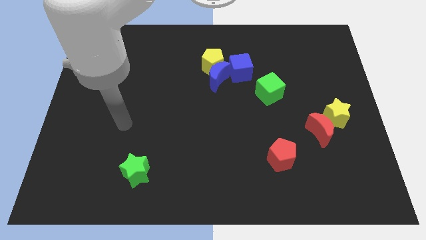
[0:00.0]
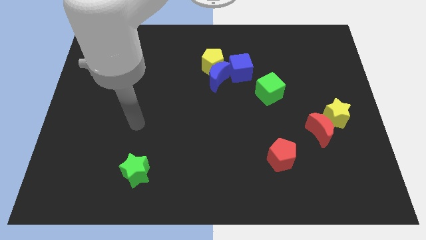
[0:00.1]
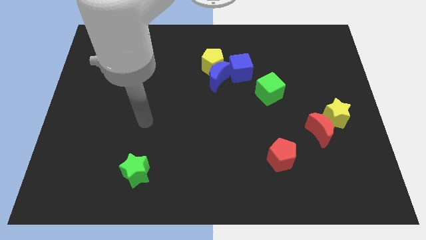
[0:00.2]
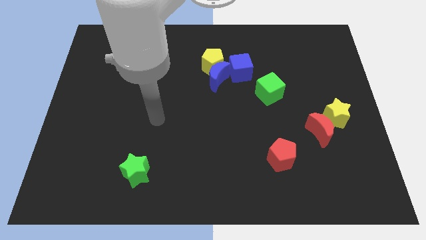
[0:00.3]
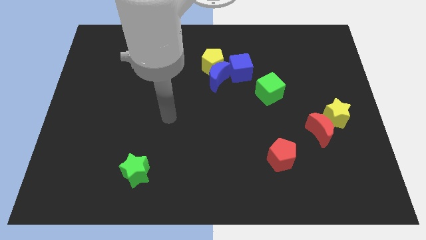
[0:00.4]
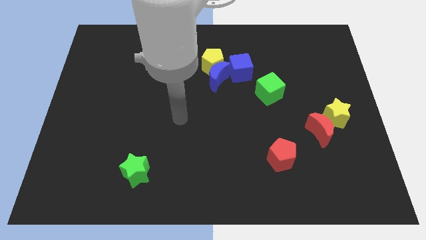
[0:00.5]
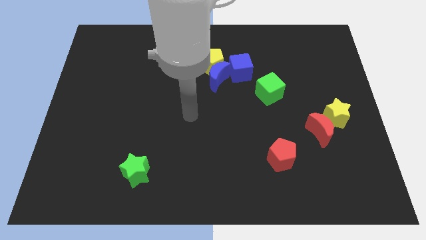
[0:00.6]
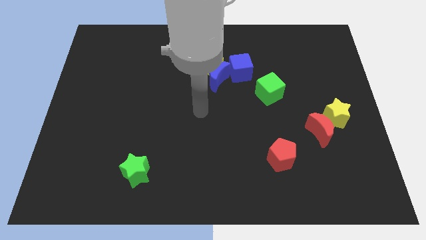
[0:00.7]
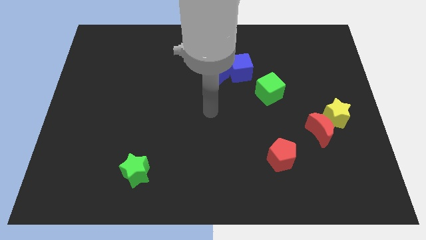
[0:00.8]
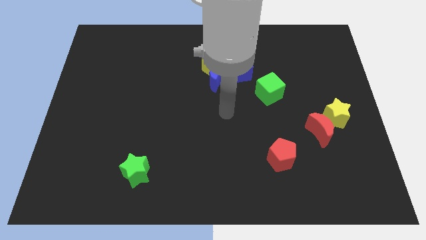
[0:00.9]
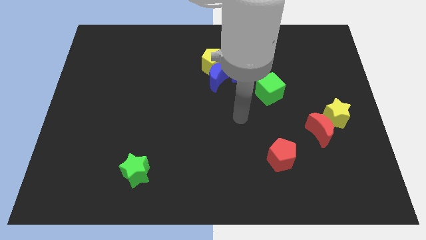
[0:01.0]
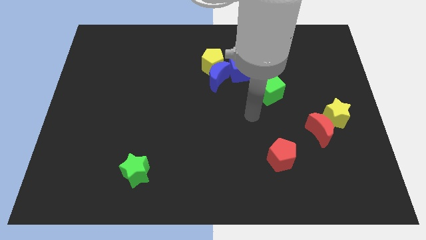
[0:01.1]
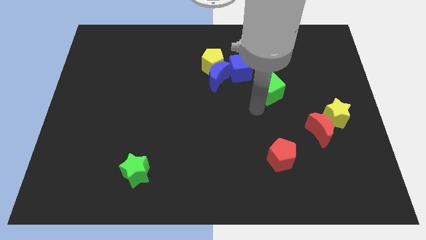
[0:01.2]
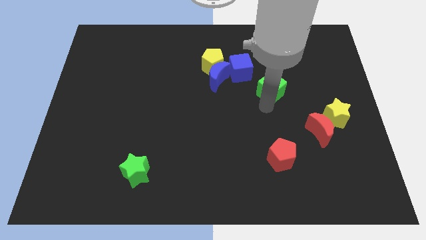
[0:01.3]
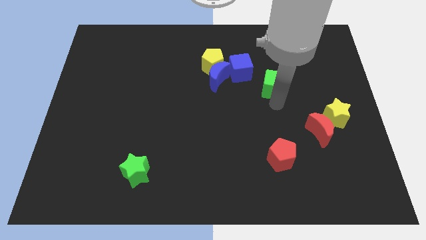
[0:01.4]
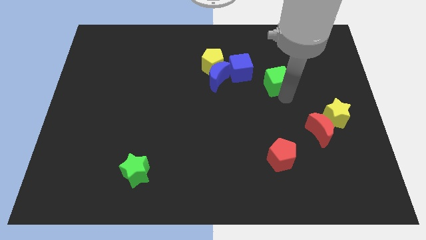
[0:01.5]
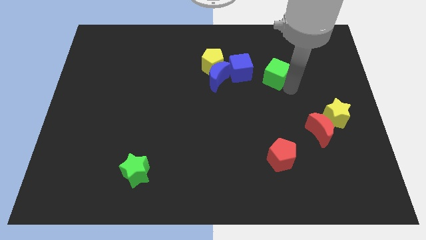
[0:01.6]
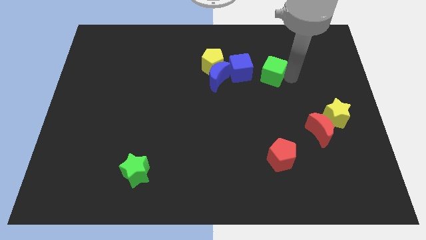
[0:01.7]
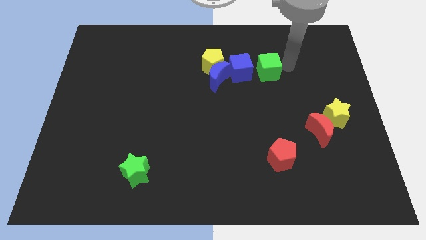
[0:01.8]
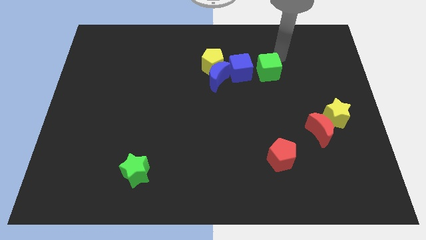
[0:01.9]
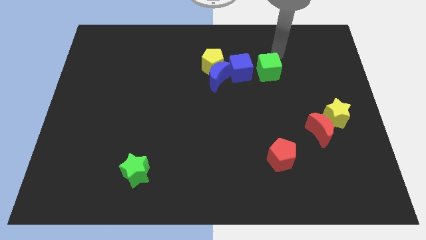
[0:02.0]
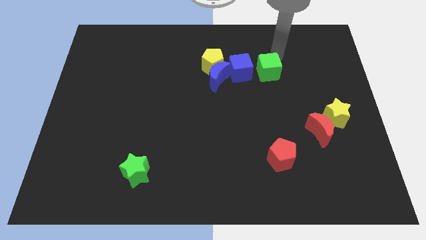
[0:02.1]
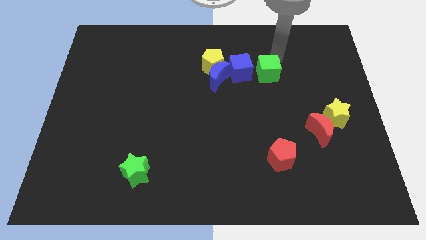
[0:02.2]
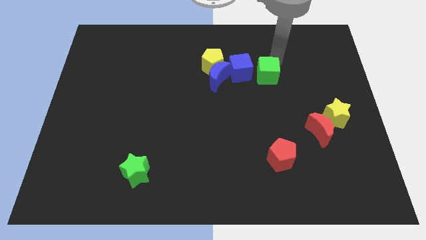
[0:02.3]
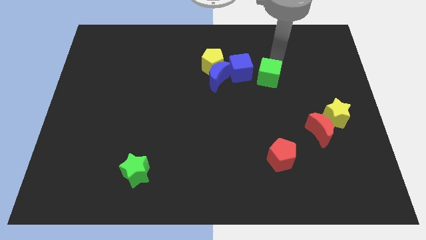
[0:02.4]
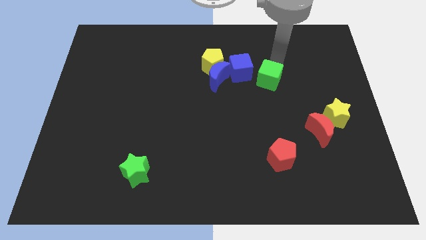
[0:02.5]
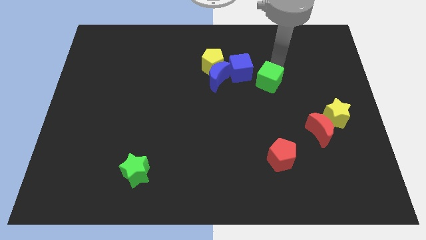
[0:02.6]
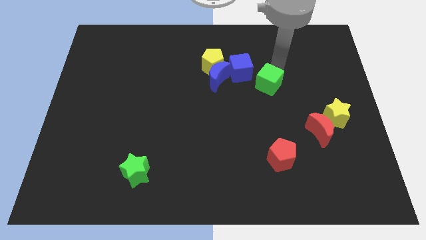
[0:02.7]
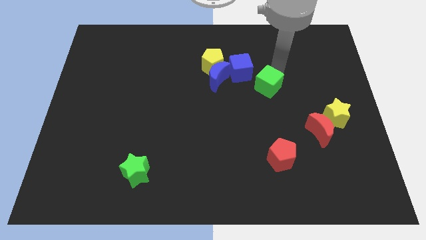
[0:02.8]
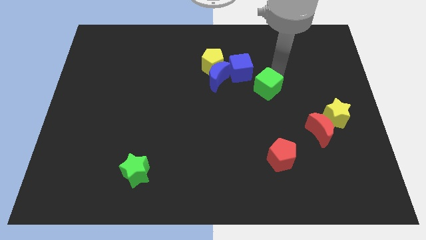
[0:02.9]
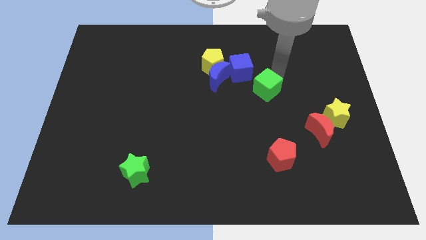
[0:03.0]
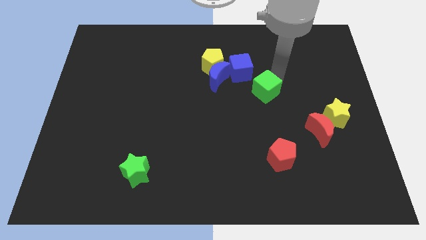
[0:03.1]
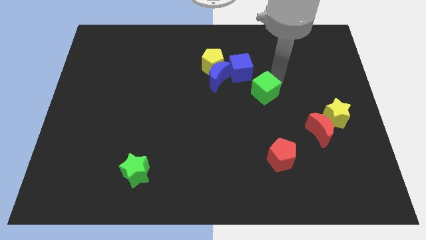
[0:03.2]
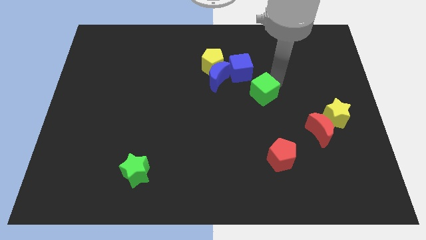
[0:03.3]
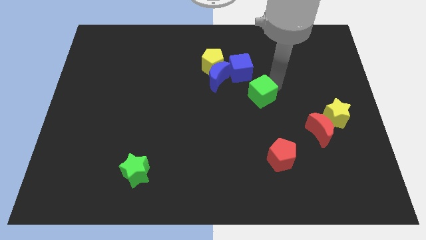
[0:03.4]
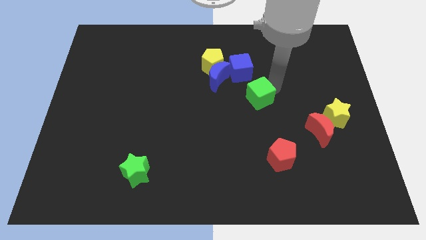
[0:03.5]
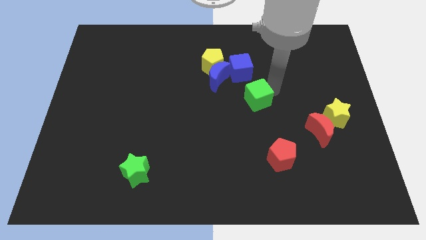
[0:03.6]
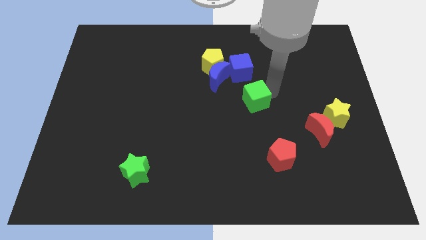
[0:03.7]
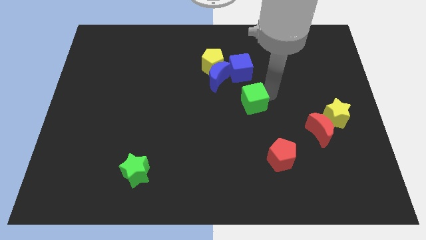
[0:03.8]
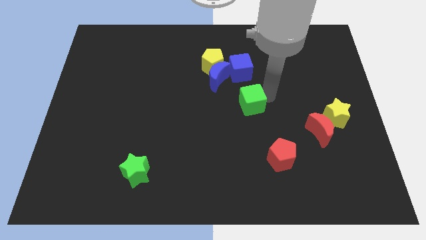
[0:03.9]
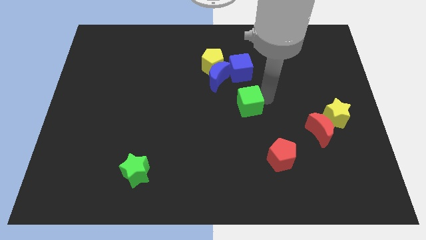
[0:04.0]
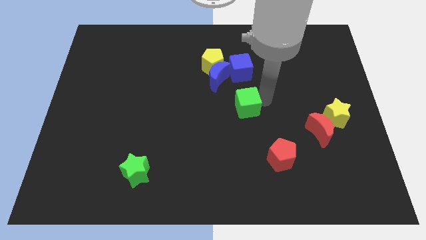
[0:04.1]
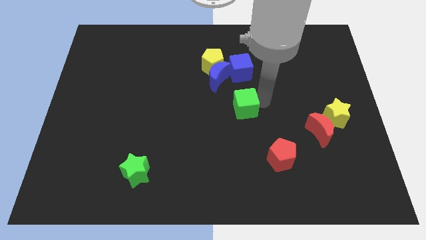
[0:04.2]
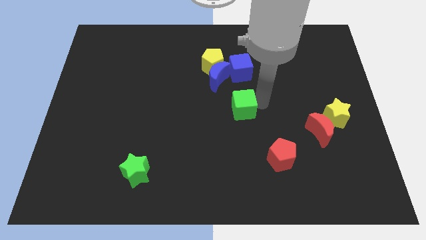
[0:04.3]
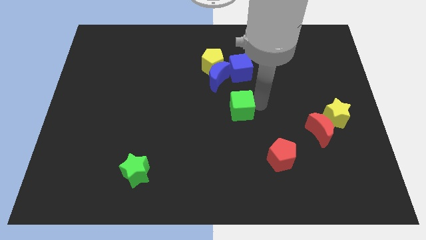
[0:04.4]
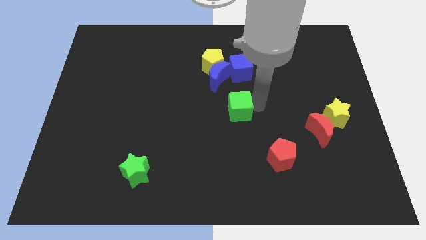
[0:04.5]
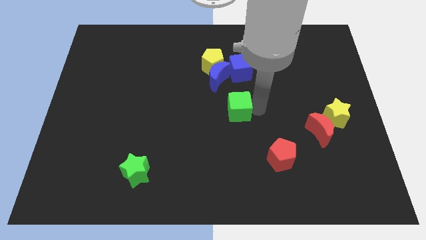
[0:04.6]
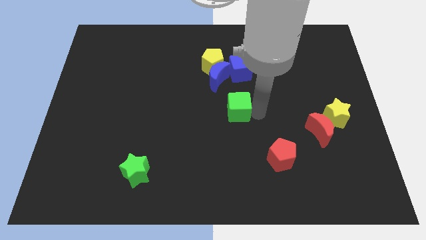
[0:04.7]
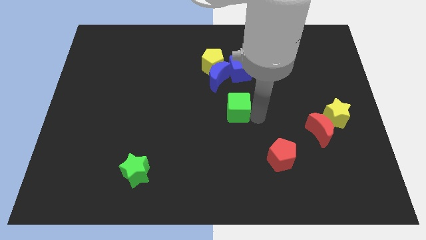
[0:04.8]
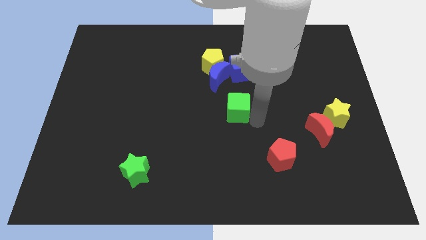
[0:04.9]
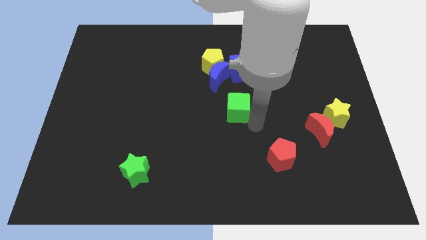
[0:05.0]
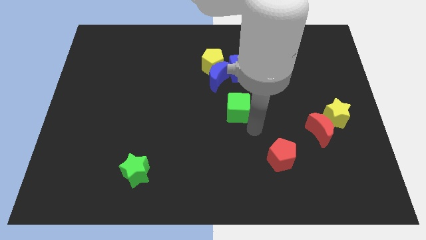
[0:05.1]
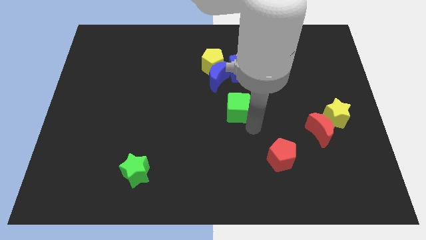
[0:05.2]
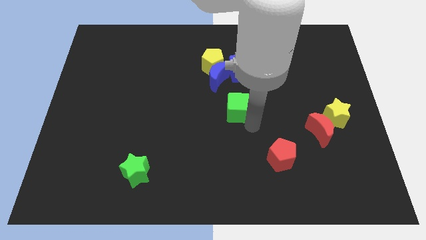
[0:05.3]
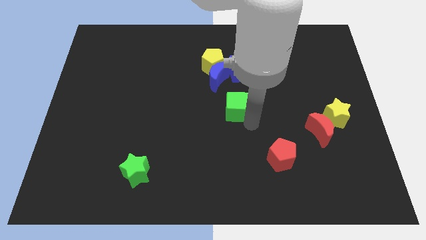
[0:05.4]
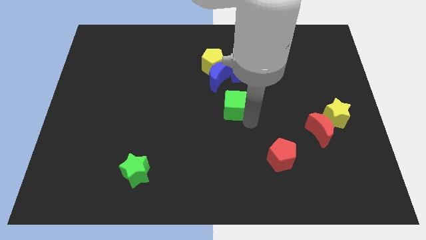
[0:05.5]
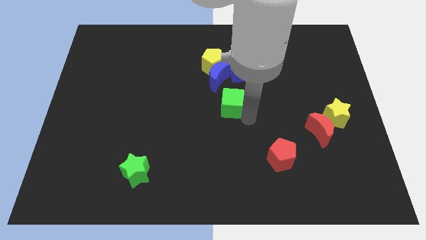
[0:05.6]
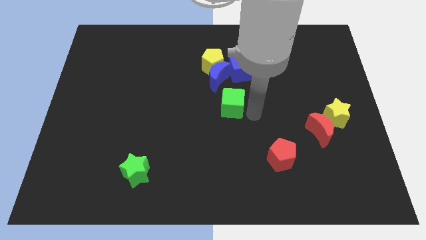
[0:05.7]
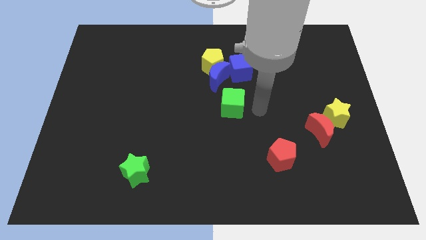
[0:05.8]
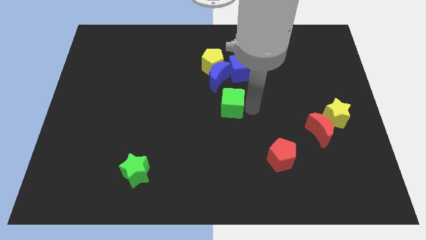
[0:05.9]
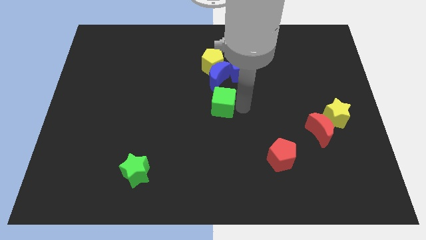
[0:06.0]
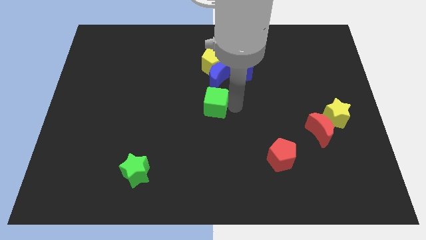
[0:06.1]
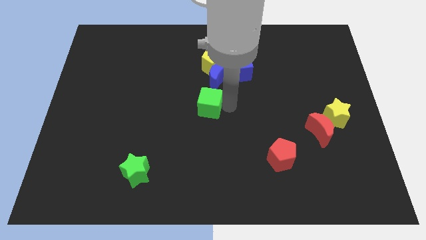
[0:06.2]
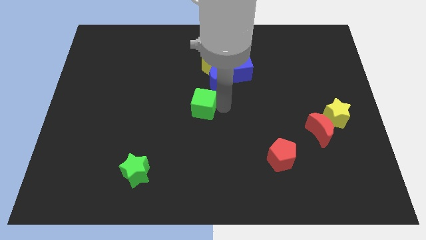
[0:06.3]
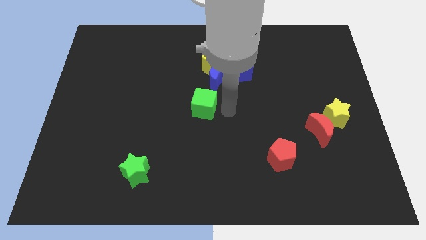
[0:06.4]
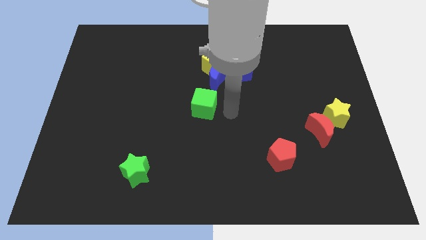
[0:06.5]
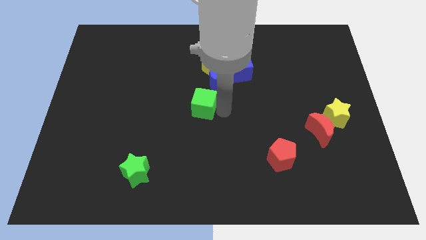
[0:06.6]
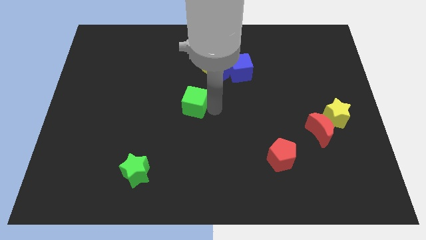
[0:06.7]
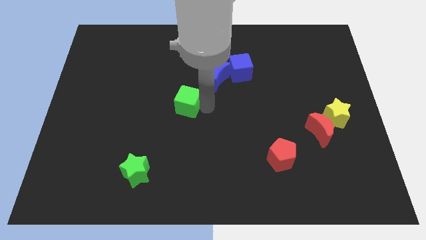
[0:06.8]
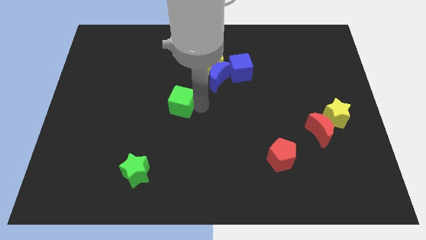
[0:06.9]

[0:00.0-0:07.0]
slide the green cube left

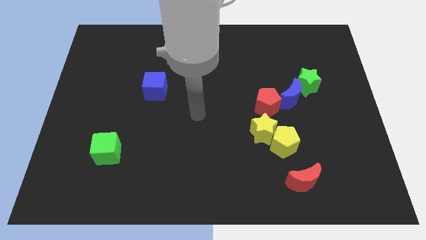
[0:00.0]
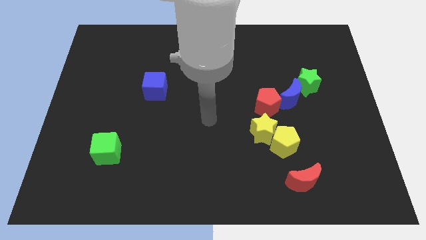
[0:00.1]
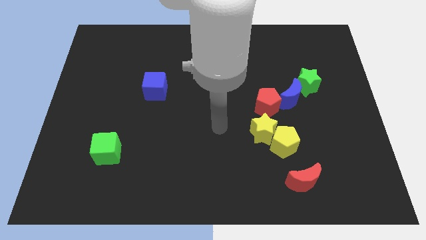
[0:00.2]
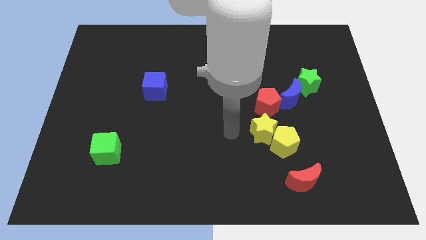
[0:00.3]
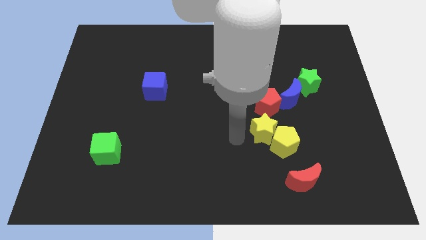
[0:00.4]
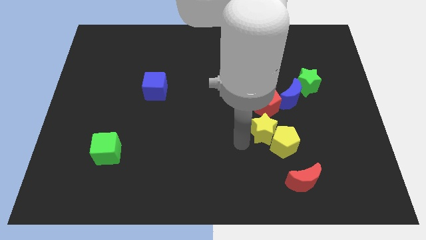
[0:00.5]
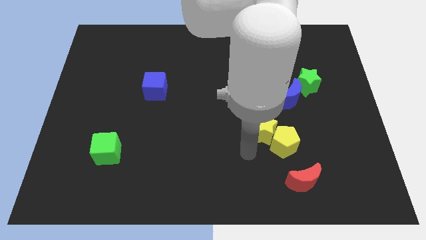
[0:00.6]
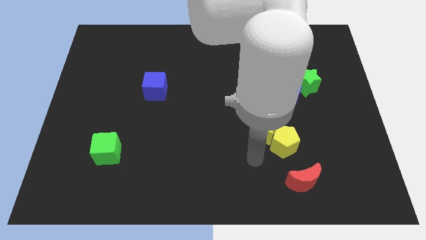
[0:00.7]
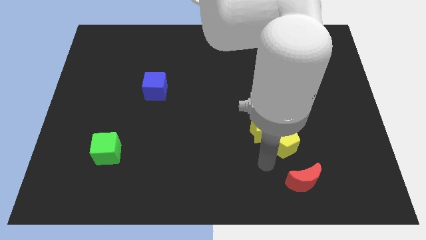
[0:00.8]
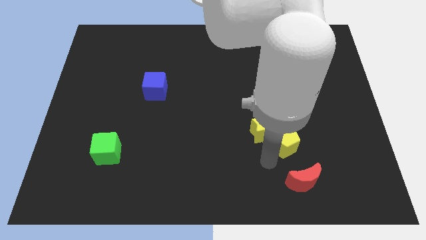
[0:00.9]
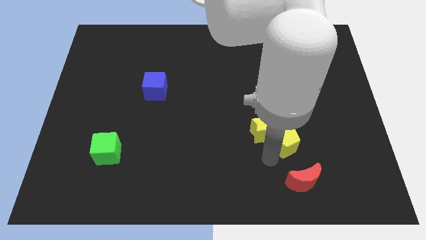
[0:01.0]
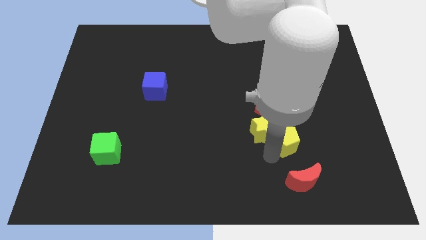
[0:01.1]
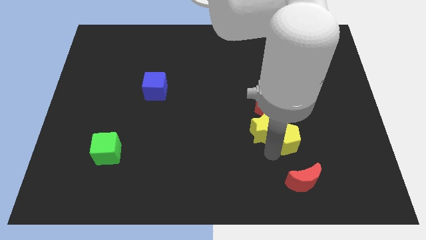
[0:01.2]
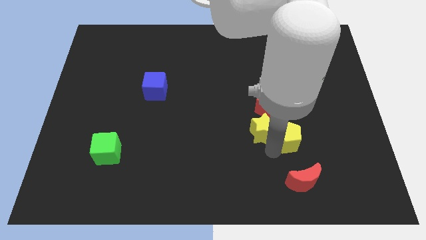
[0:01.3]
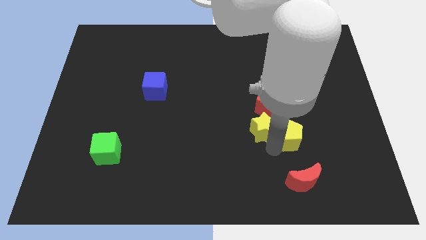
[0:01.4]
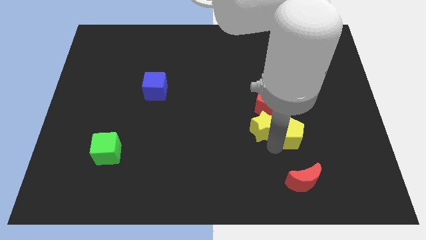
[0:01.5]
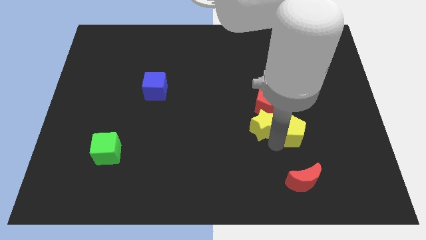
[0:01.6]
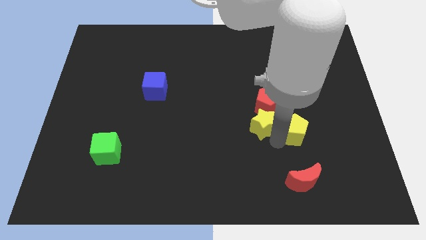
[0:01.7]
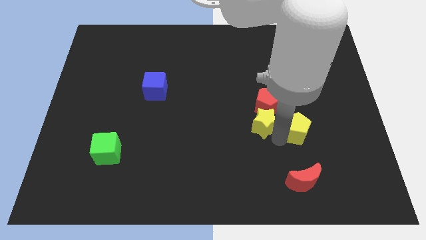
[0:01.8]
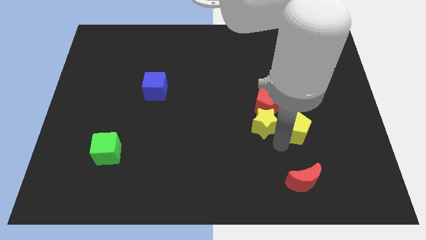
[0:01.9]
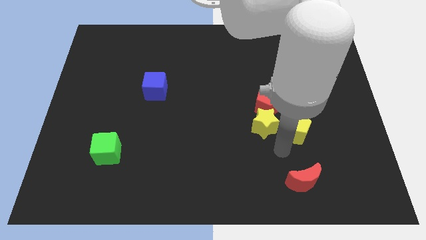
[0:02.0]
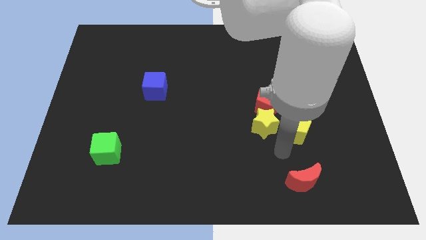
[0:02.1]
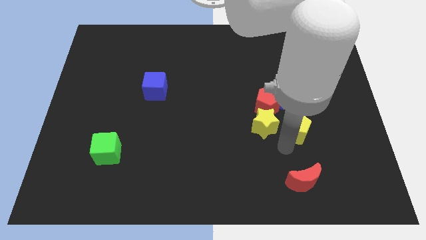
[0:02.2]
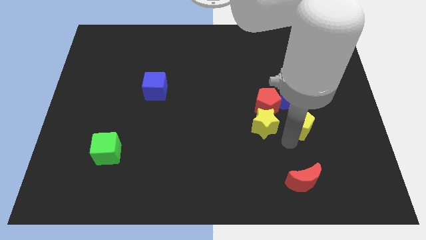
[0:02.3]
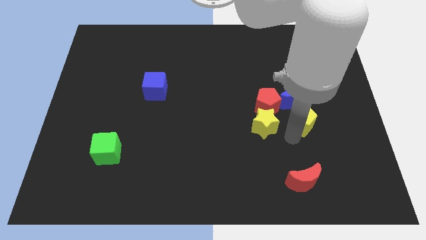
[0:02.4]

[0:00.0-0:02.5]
push the yellow pentagon slightly up and then to the right
